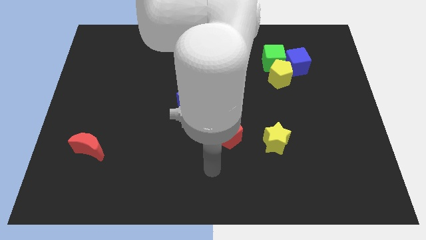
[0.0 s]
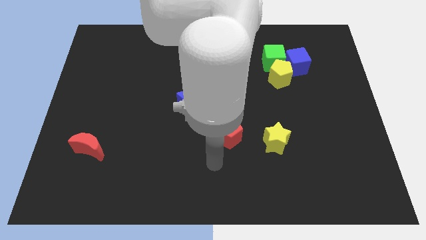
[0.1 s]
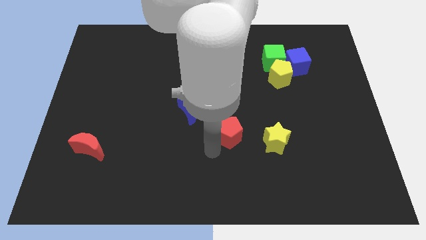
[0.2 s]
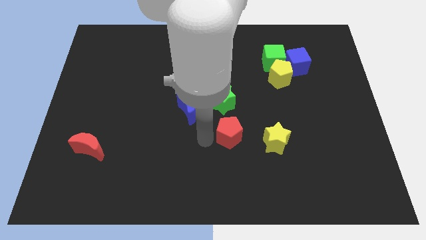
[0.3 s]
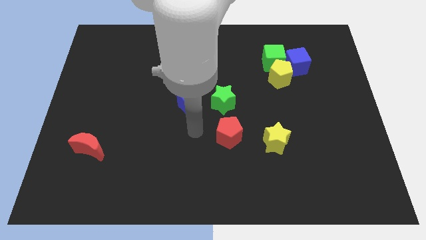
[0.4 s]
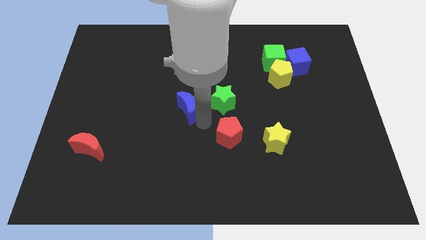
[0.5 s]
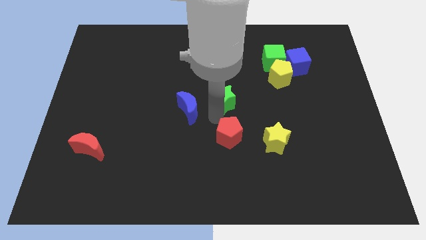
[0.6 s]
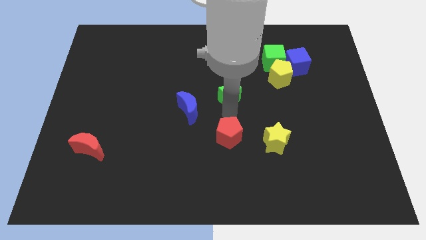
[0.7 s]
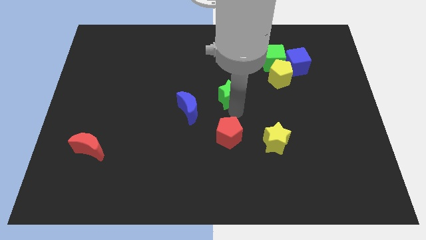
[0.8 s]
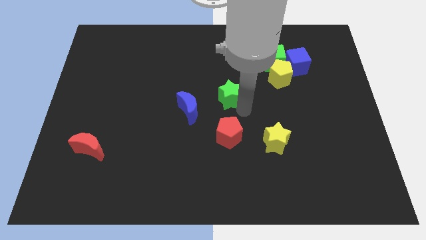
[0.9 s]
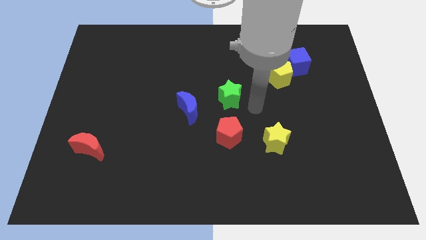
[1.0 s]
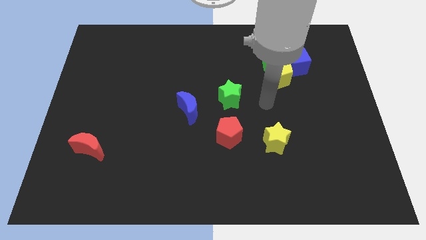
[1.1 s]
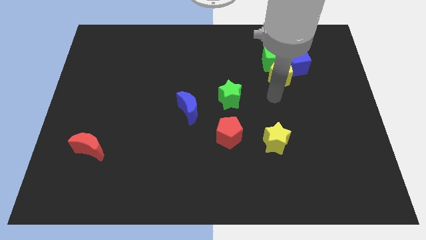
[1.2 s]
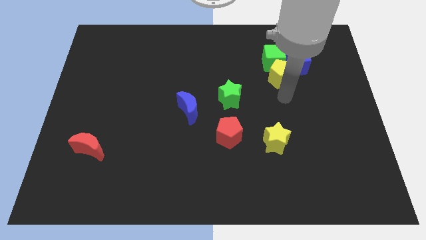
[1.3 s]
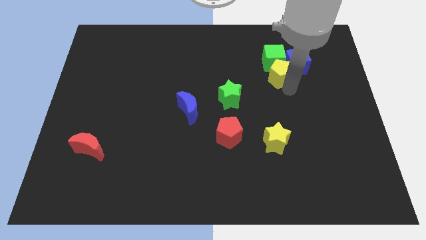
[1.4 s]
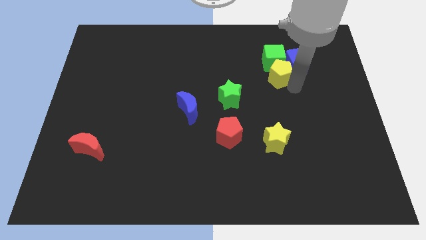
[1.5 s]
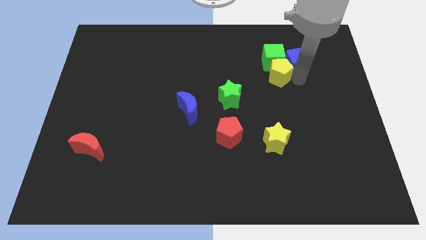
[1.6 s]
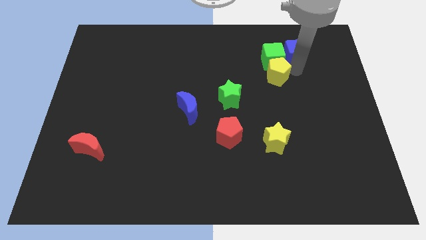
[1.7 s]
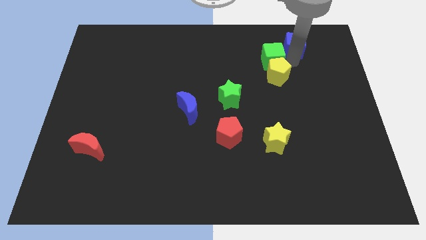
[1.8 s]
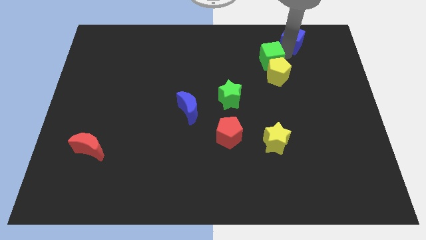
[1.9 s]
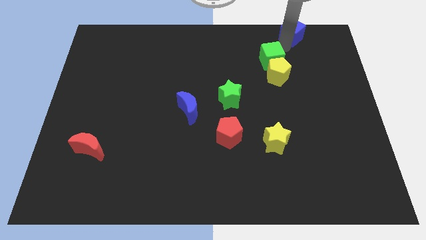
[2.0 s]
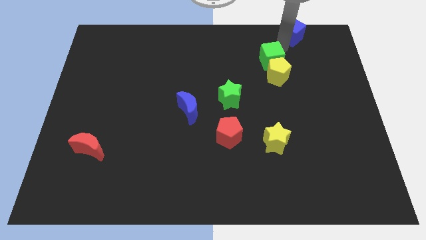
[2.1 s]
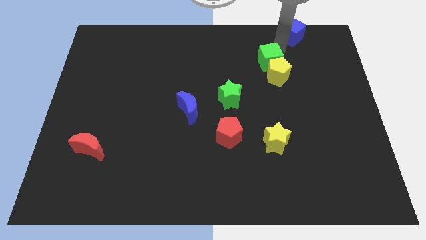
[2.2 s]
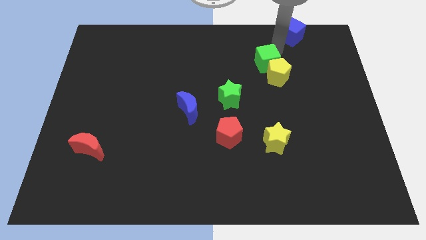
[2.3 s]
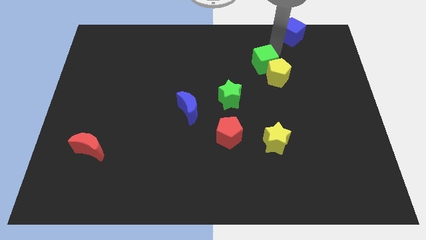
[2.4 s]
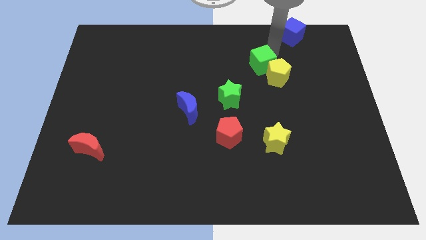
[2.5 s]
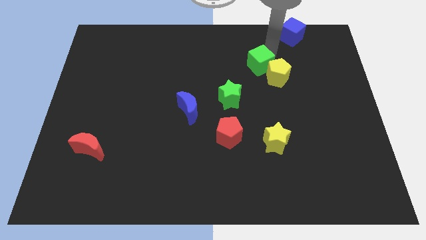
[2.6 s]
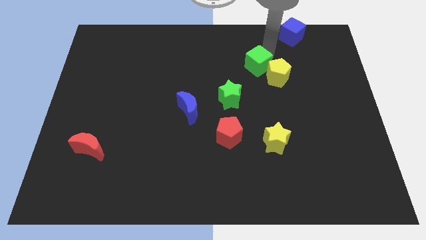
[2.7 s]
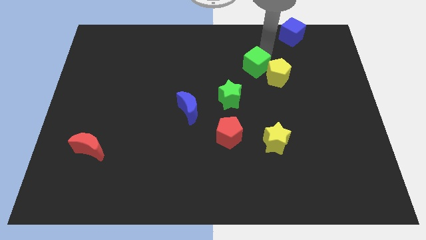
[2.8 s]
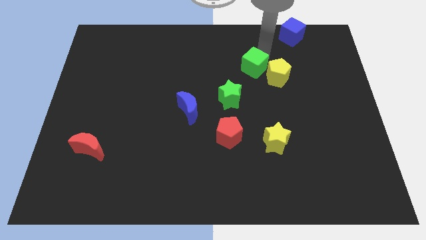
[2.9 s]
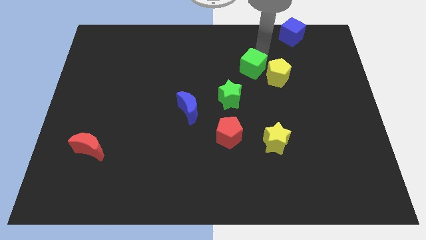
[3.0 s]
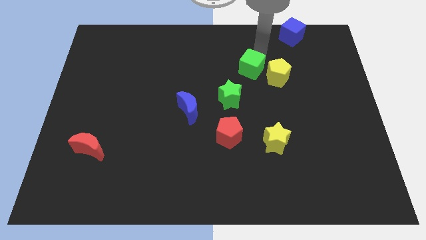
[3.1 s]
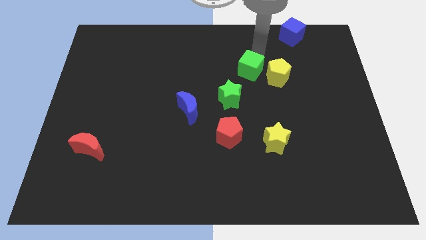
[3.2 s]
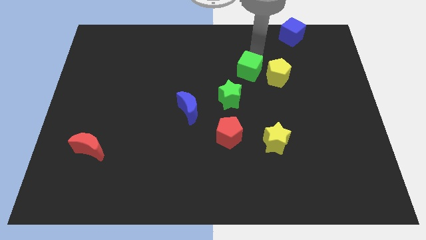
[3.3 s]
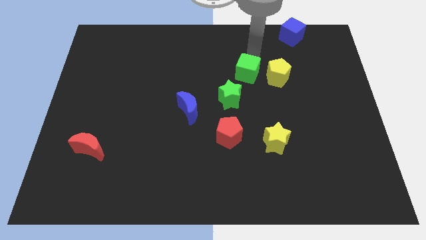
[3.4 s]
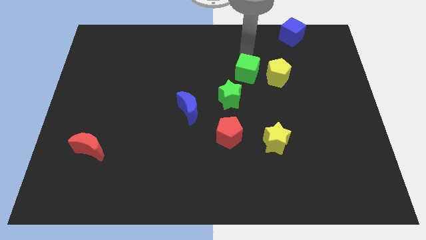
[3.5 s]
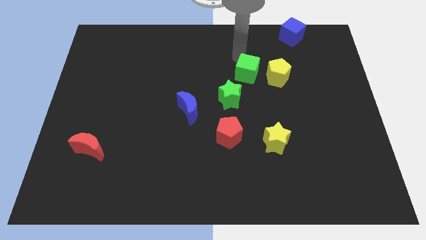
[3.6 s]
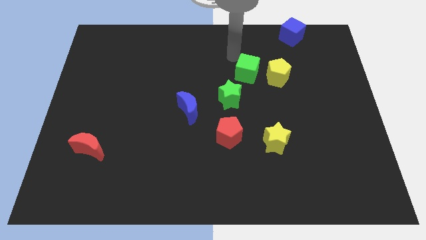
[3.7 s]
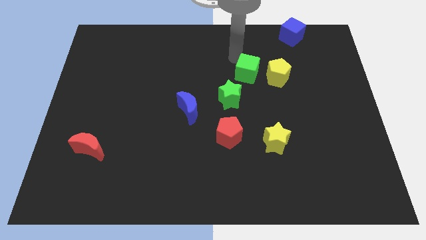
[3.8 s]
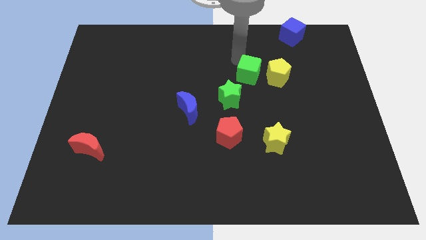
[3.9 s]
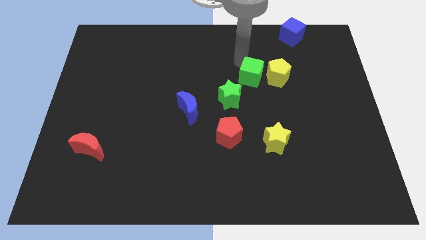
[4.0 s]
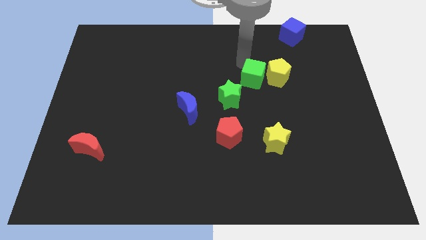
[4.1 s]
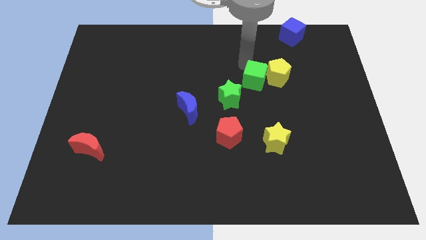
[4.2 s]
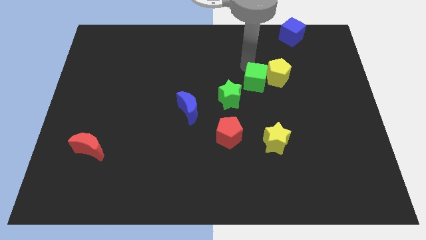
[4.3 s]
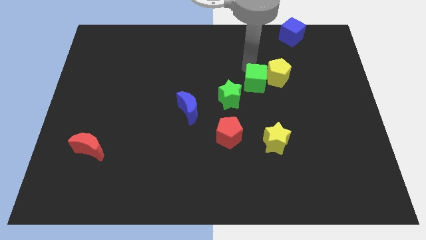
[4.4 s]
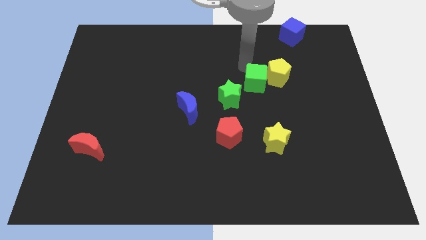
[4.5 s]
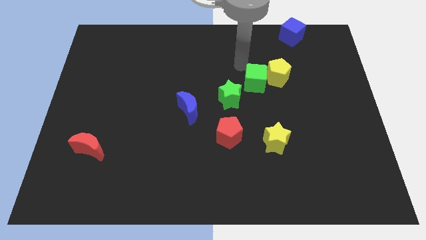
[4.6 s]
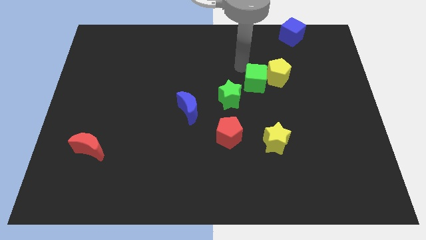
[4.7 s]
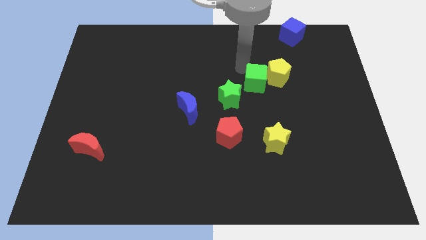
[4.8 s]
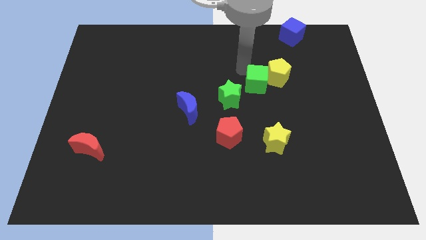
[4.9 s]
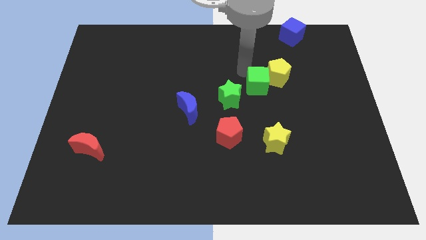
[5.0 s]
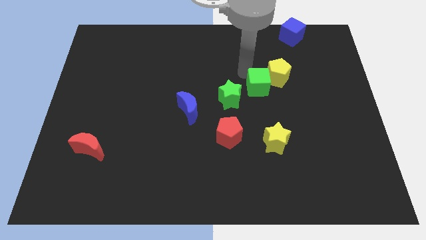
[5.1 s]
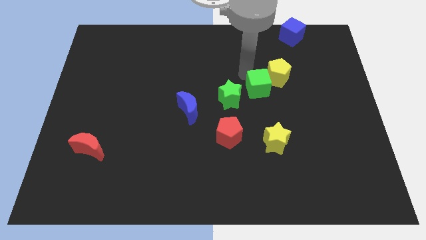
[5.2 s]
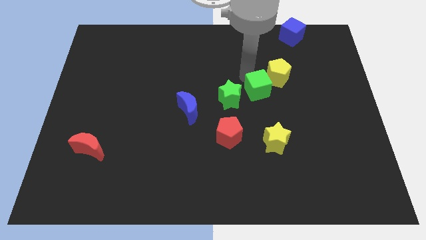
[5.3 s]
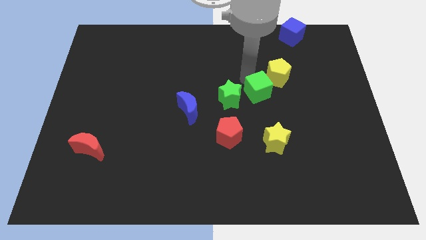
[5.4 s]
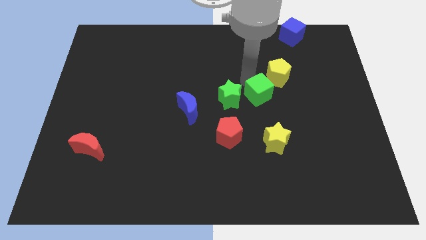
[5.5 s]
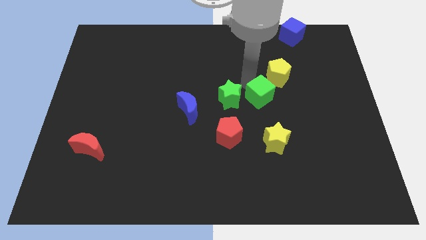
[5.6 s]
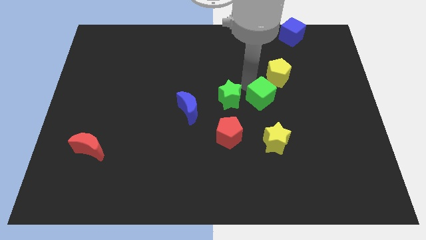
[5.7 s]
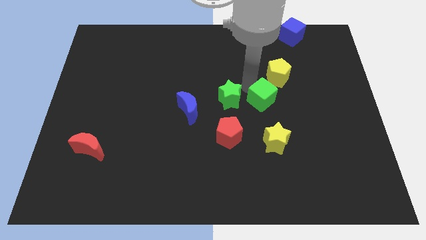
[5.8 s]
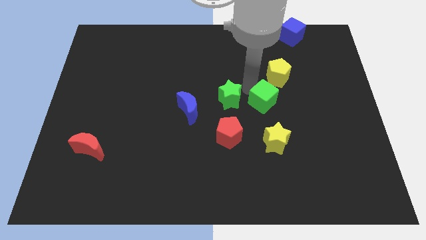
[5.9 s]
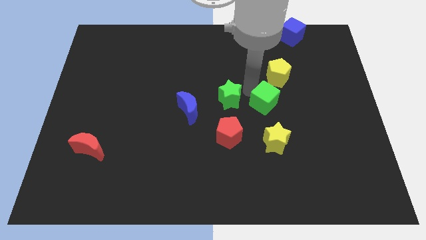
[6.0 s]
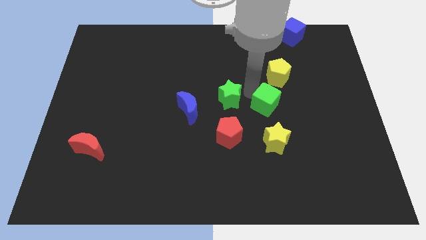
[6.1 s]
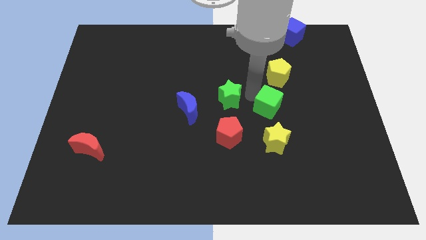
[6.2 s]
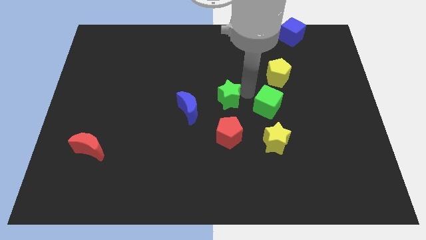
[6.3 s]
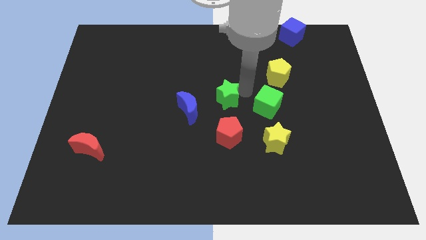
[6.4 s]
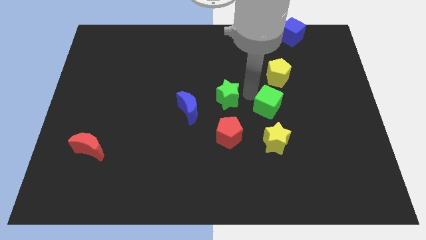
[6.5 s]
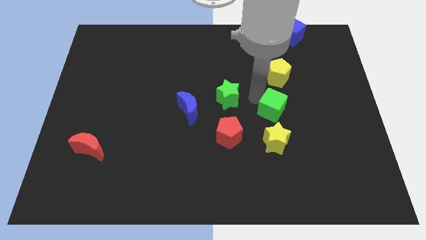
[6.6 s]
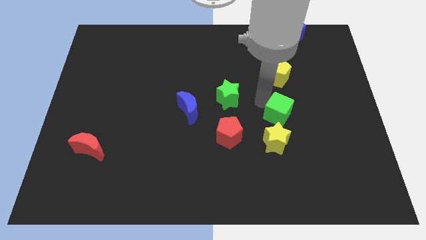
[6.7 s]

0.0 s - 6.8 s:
move the green cube to the top right of the yellow star
